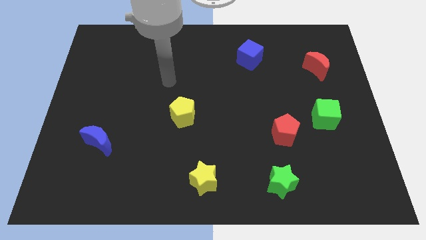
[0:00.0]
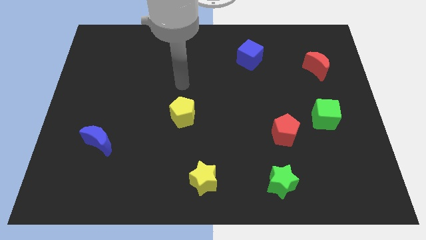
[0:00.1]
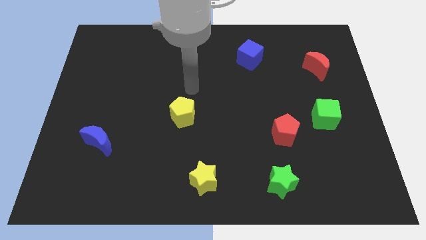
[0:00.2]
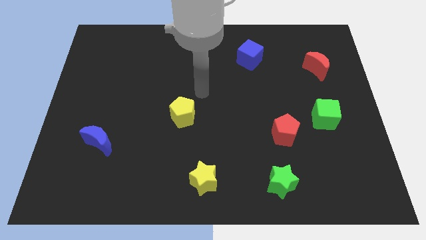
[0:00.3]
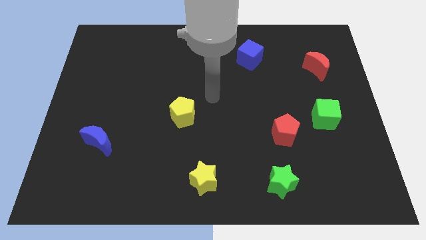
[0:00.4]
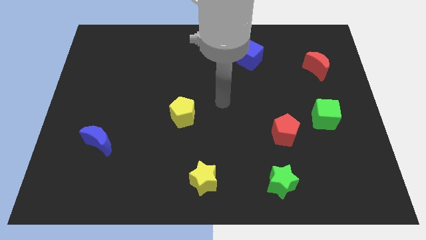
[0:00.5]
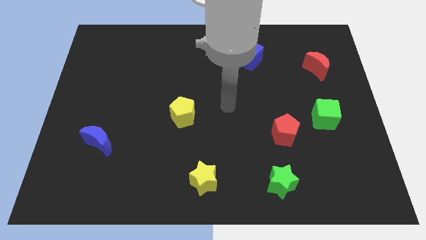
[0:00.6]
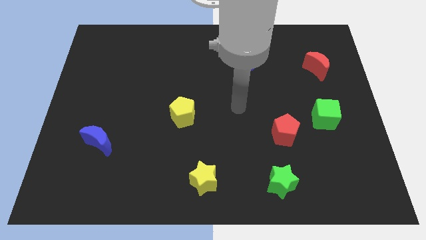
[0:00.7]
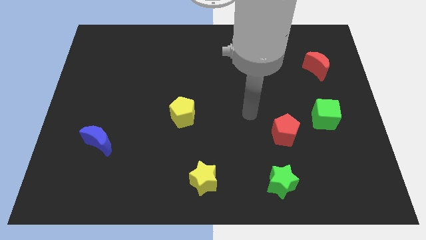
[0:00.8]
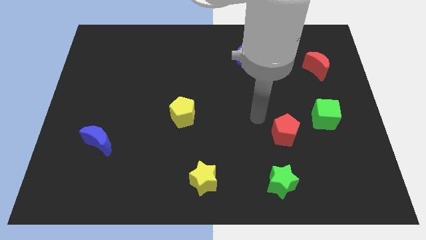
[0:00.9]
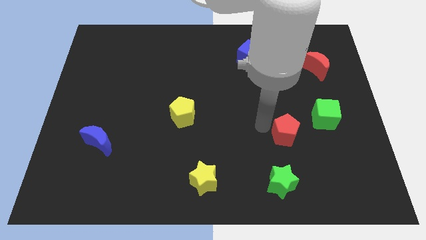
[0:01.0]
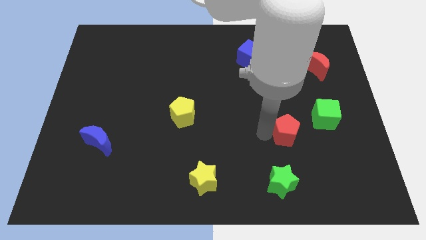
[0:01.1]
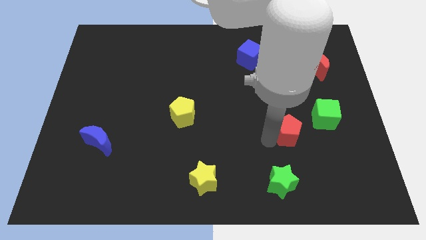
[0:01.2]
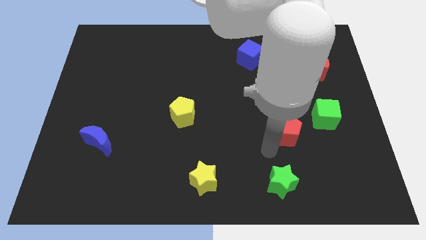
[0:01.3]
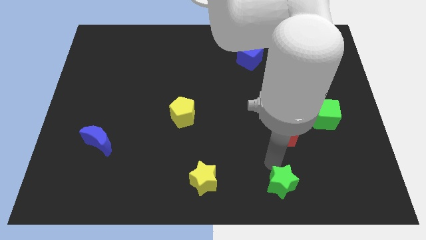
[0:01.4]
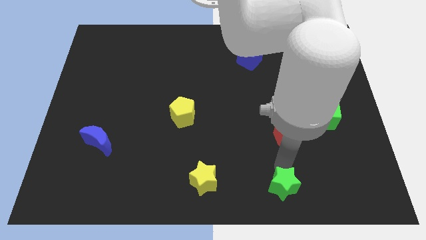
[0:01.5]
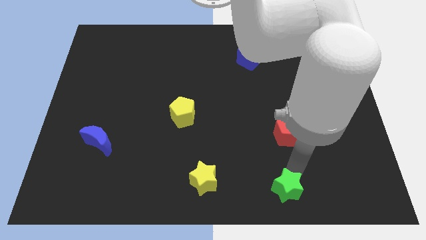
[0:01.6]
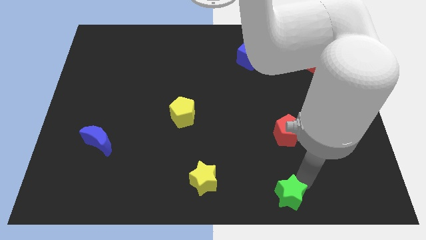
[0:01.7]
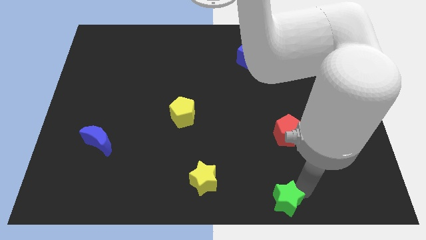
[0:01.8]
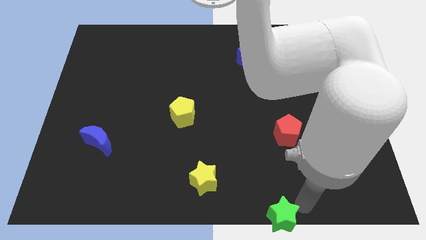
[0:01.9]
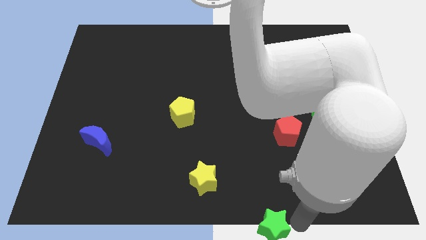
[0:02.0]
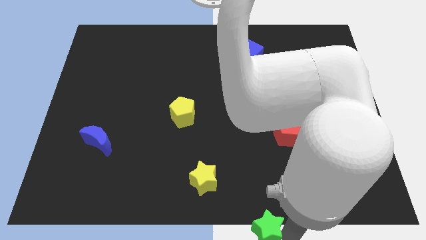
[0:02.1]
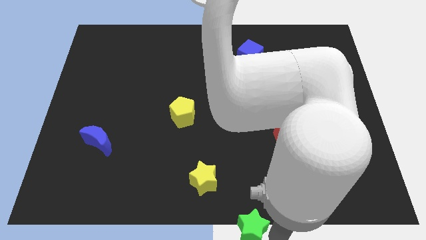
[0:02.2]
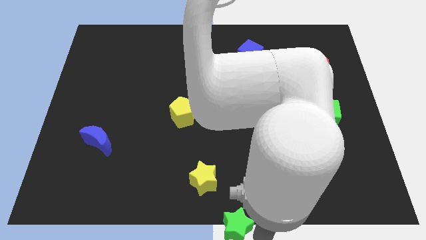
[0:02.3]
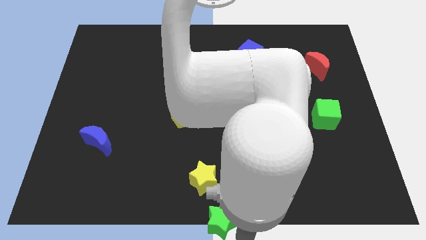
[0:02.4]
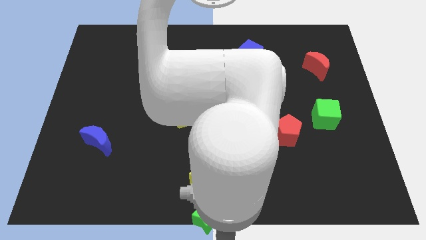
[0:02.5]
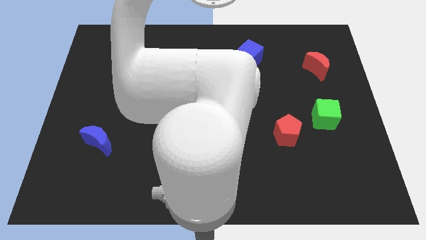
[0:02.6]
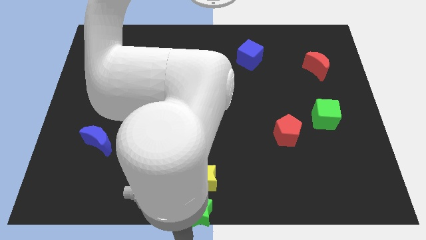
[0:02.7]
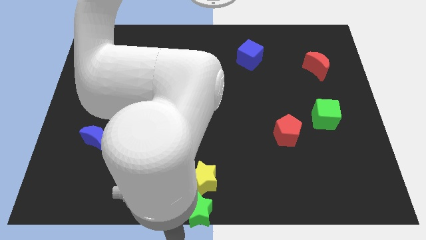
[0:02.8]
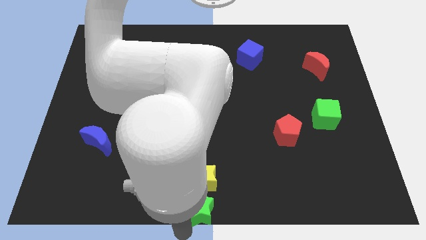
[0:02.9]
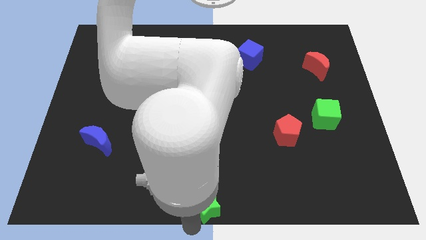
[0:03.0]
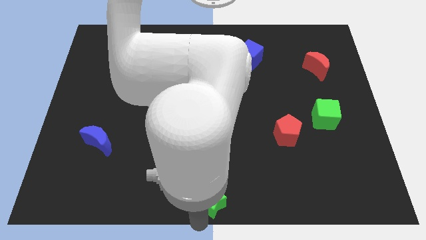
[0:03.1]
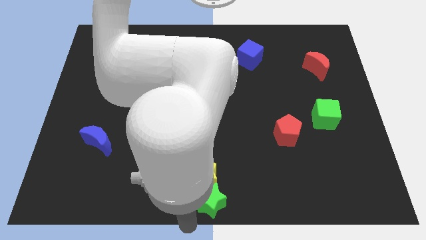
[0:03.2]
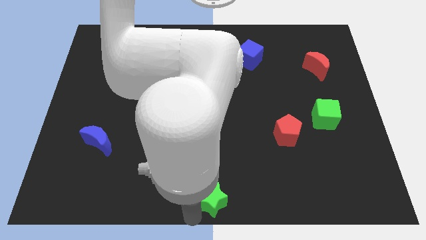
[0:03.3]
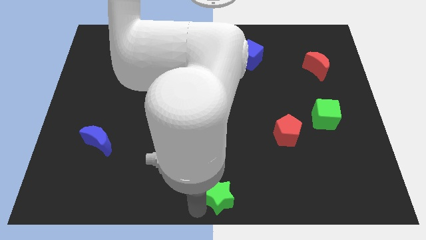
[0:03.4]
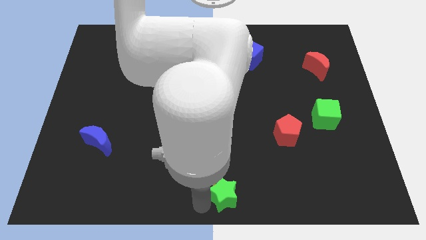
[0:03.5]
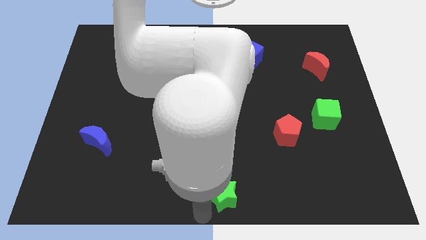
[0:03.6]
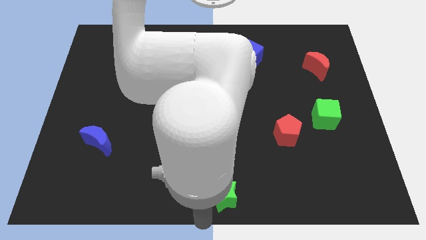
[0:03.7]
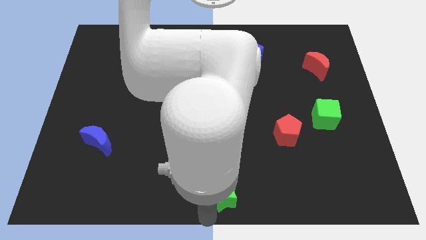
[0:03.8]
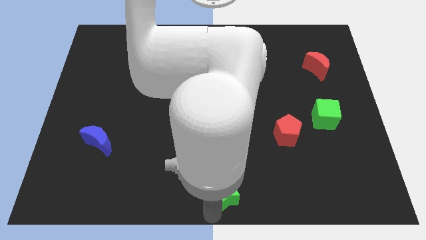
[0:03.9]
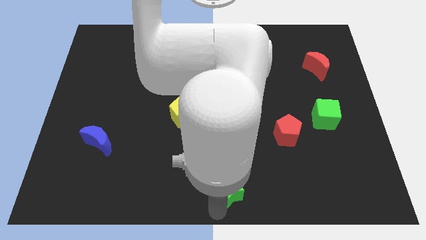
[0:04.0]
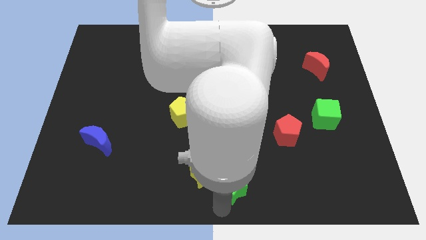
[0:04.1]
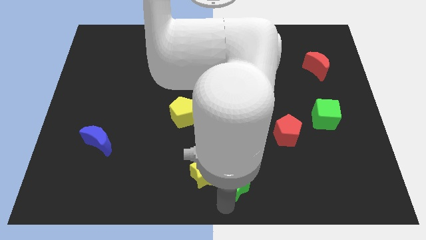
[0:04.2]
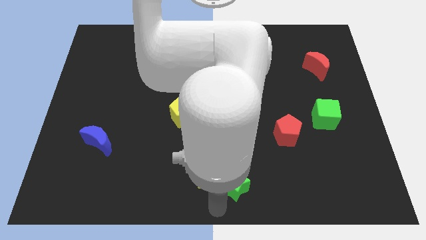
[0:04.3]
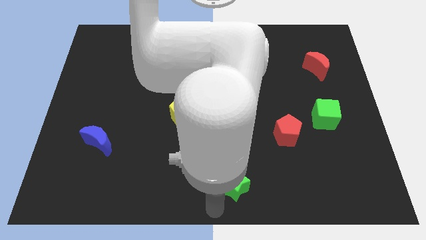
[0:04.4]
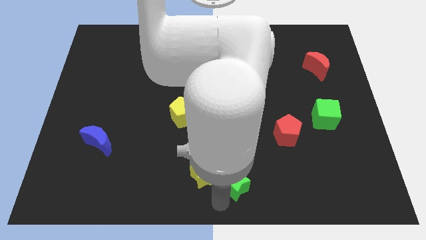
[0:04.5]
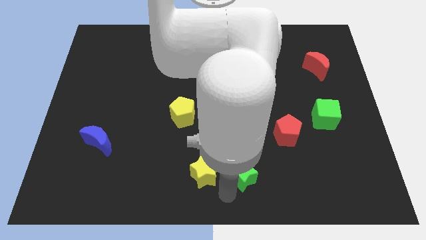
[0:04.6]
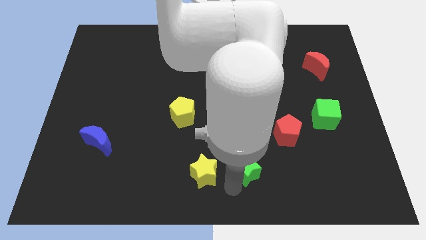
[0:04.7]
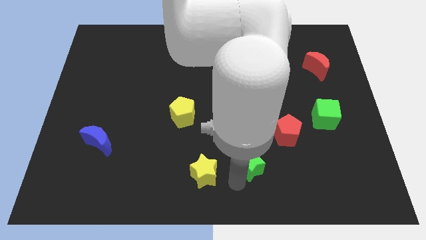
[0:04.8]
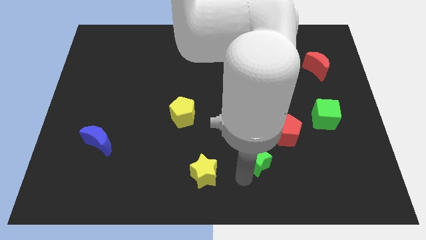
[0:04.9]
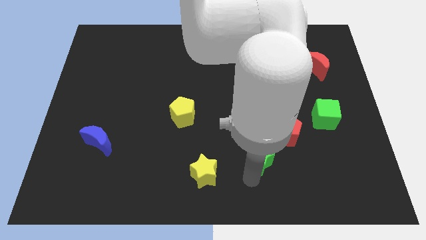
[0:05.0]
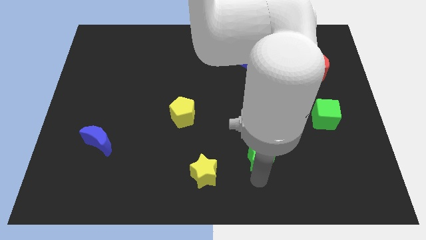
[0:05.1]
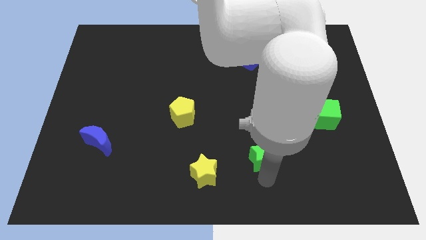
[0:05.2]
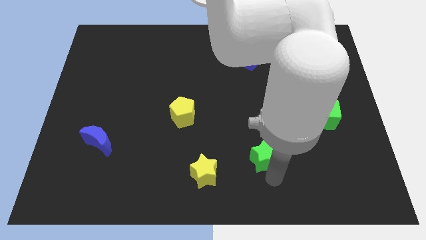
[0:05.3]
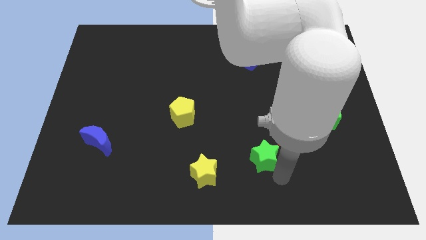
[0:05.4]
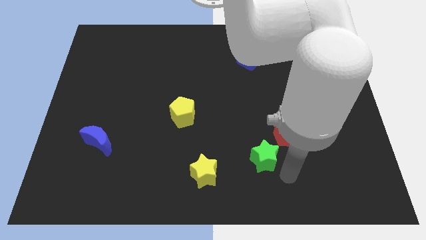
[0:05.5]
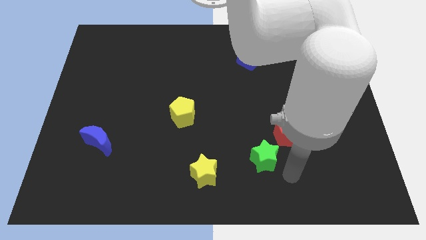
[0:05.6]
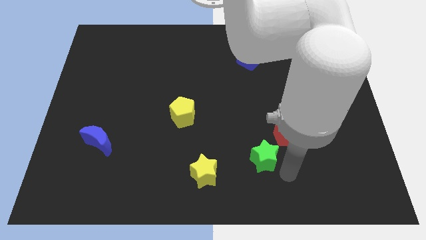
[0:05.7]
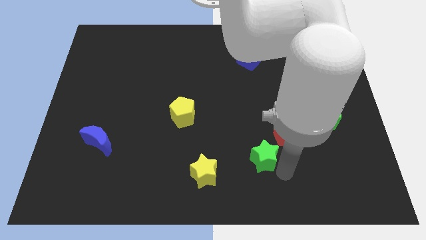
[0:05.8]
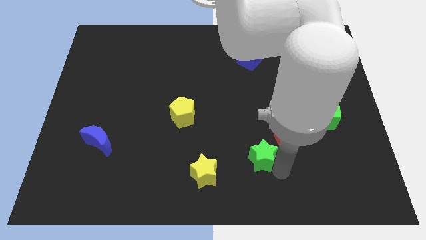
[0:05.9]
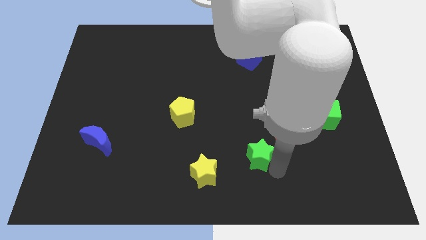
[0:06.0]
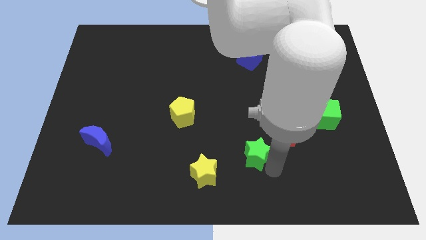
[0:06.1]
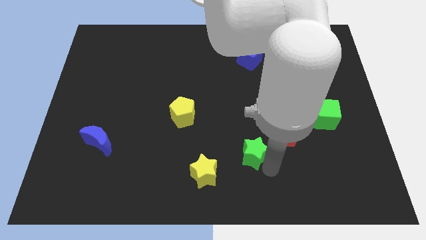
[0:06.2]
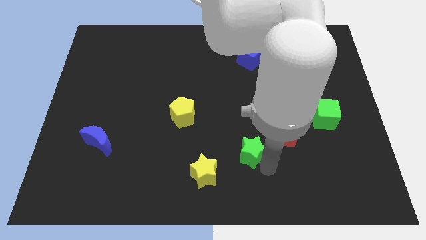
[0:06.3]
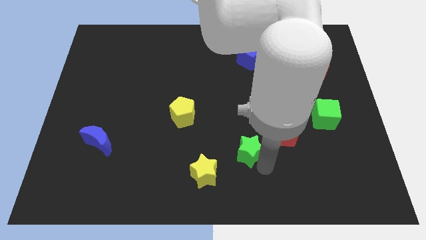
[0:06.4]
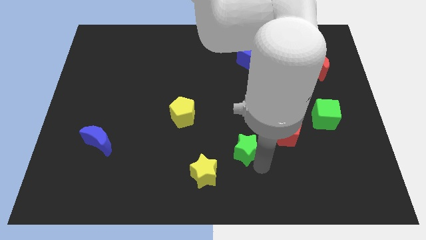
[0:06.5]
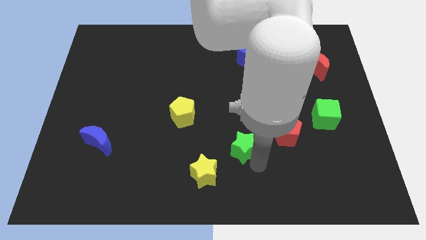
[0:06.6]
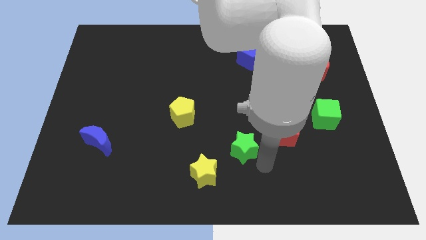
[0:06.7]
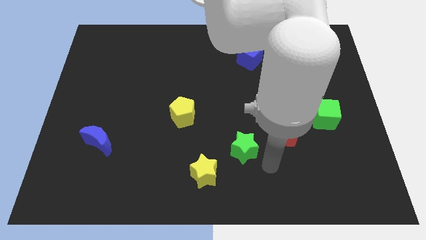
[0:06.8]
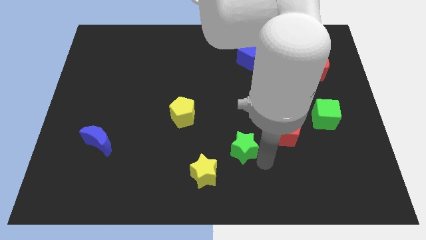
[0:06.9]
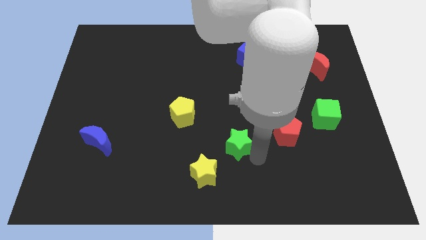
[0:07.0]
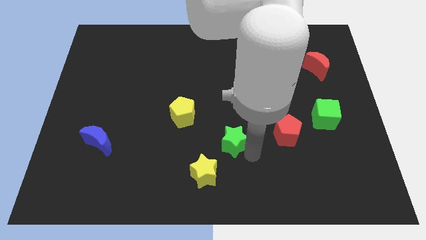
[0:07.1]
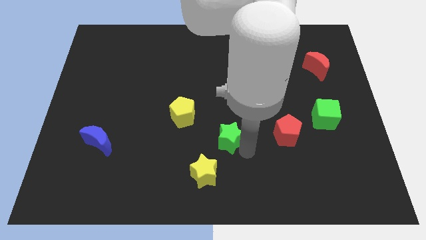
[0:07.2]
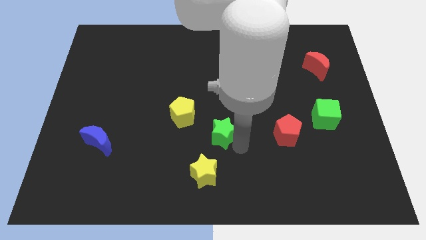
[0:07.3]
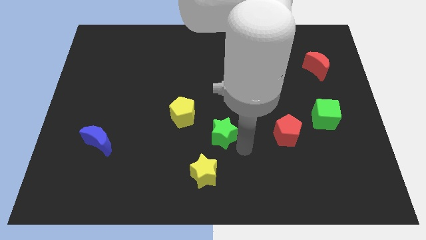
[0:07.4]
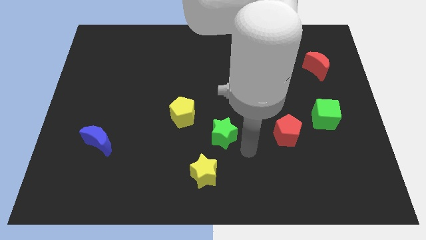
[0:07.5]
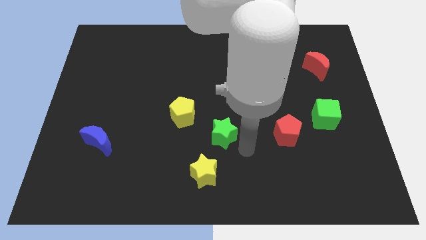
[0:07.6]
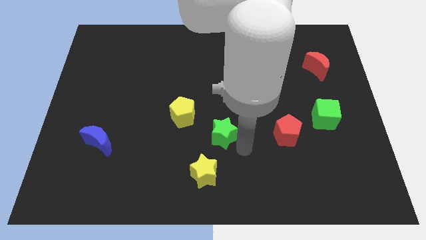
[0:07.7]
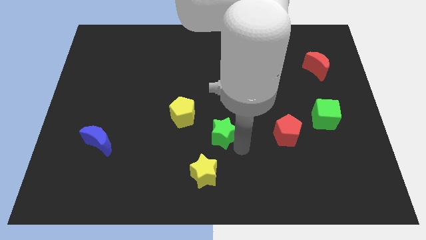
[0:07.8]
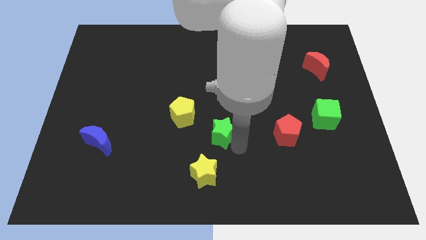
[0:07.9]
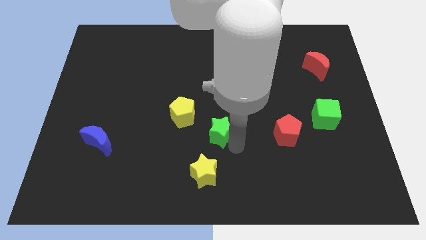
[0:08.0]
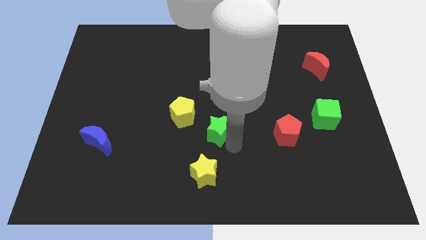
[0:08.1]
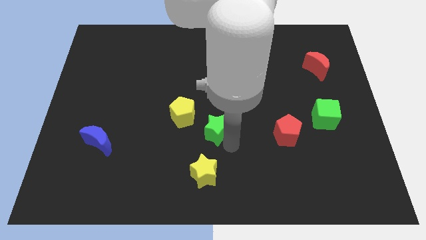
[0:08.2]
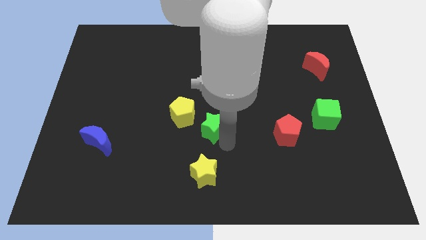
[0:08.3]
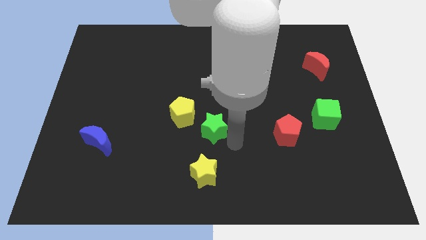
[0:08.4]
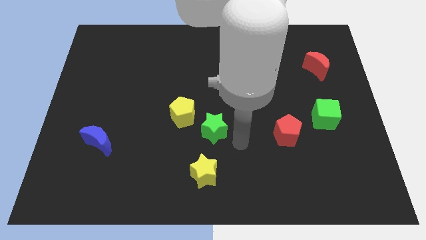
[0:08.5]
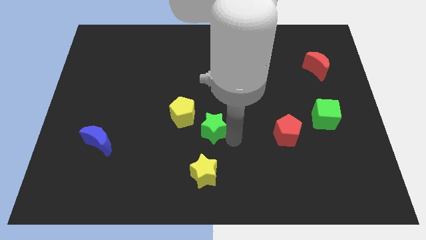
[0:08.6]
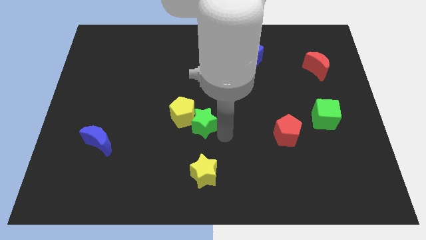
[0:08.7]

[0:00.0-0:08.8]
push the green star close to the yellow pentagon
